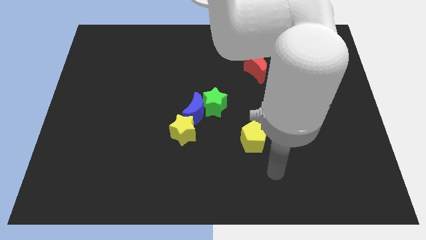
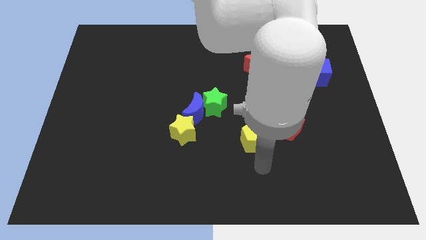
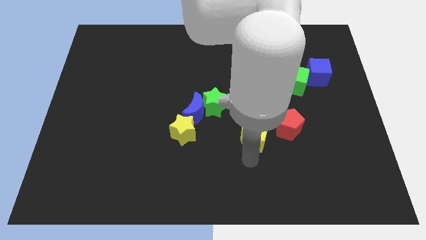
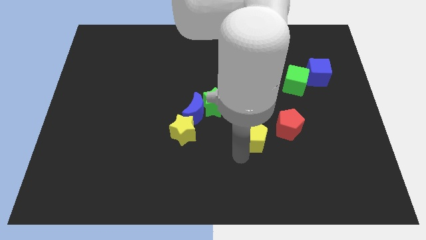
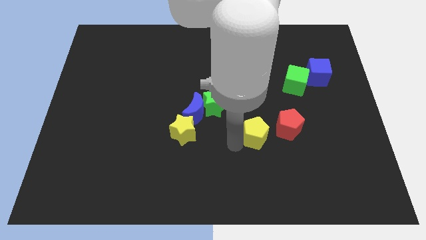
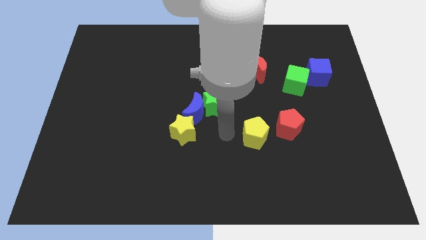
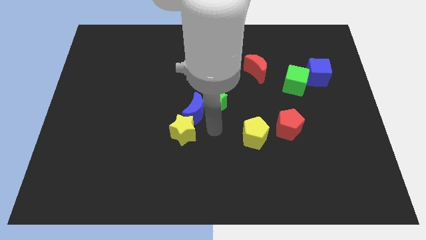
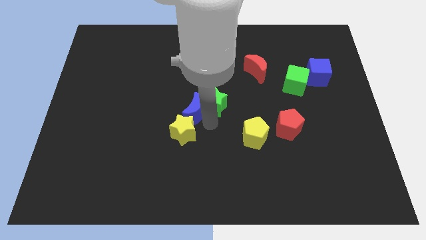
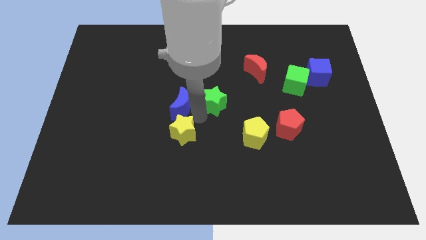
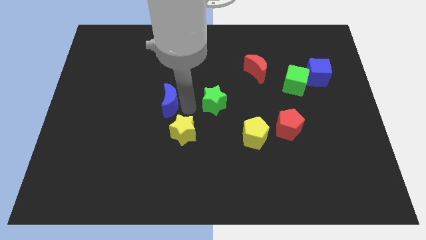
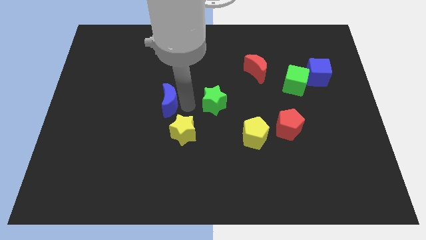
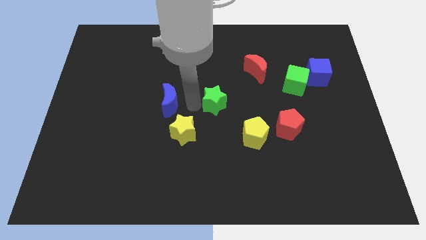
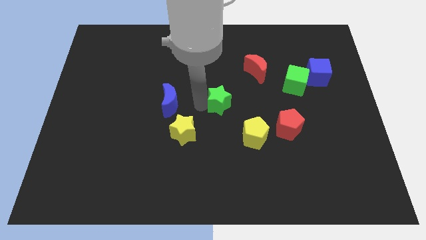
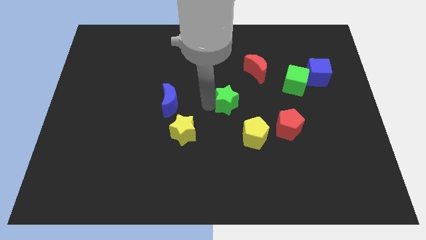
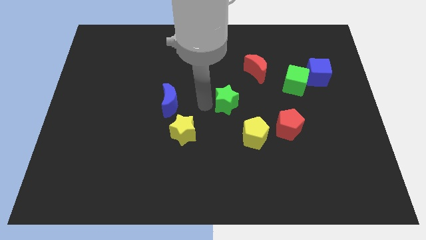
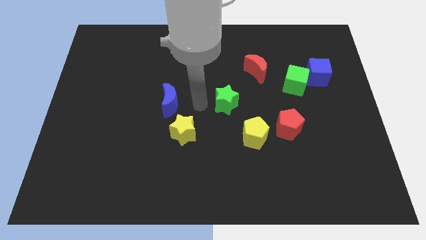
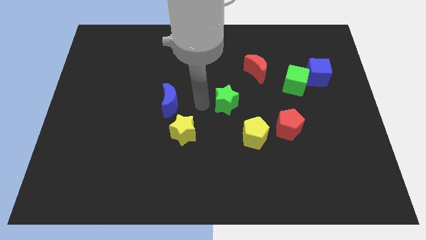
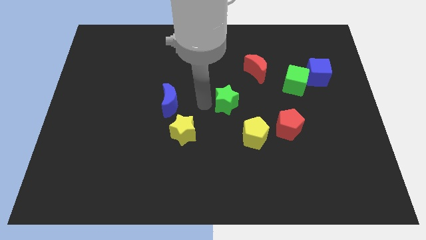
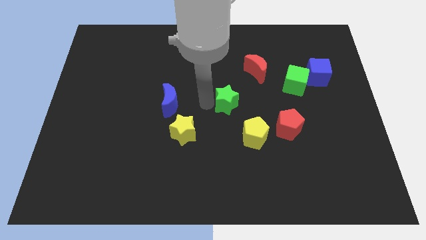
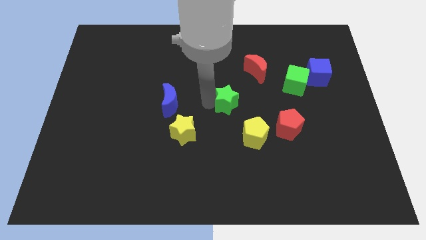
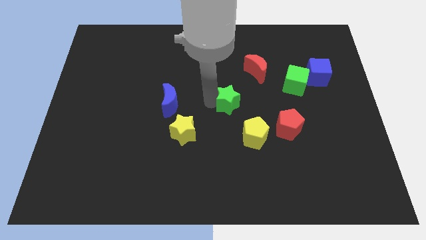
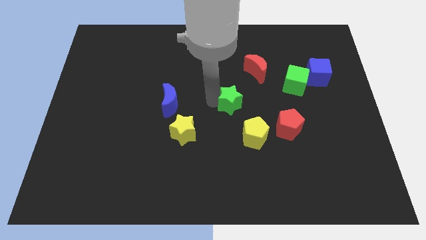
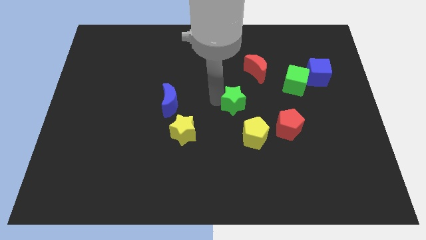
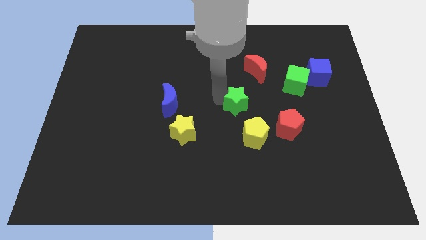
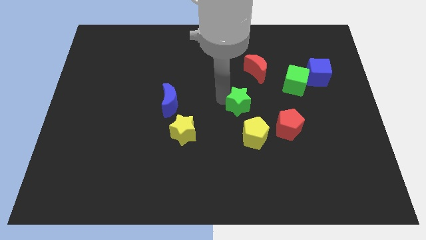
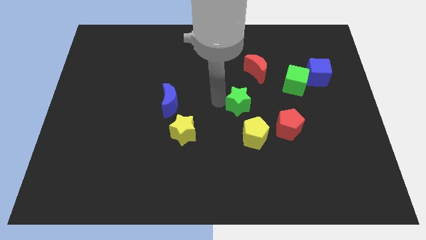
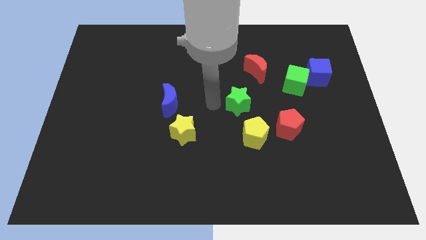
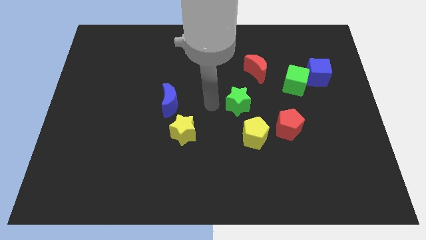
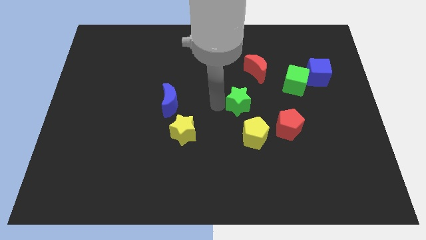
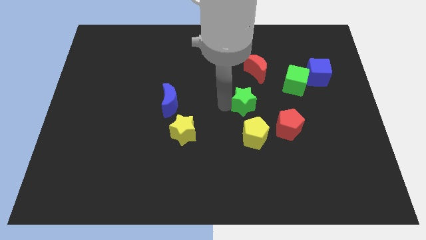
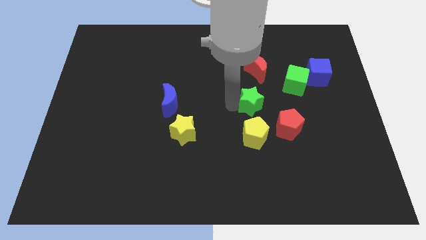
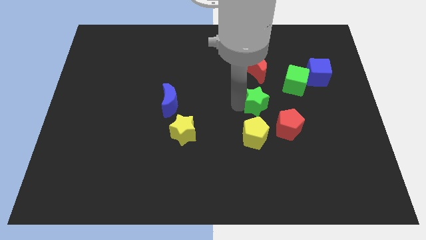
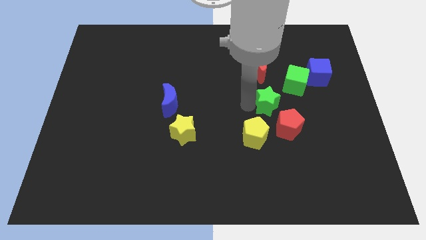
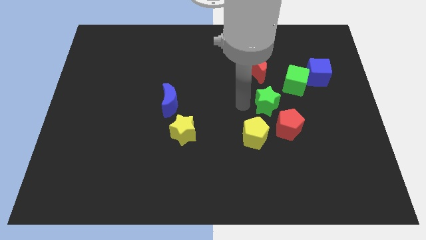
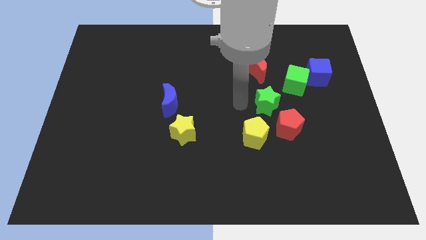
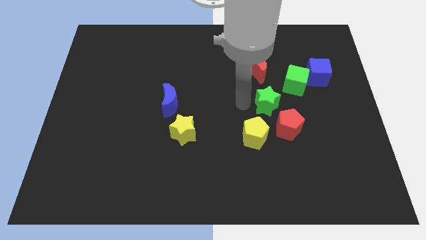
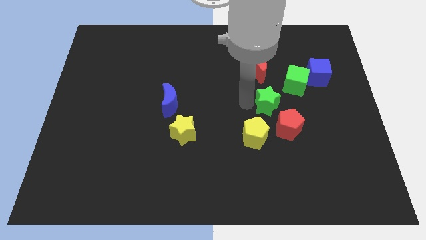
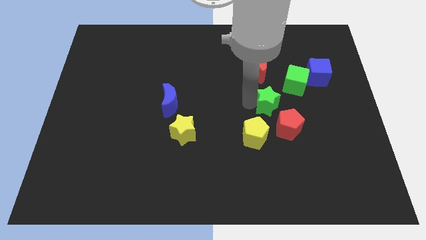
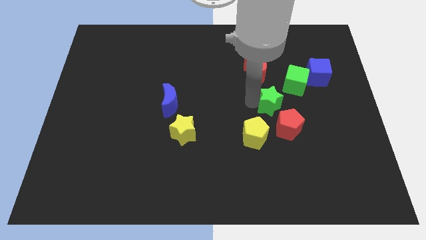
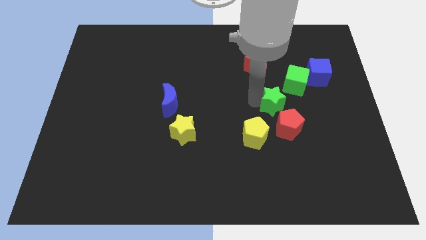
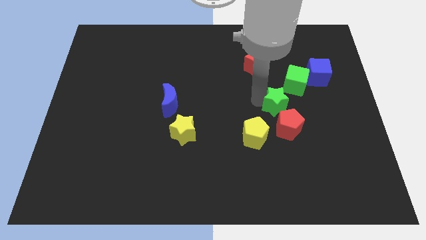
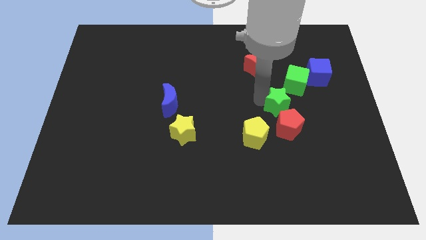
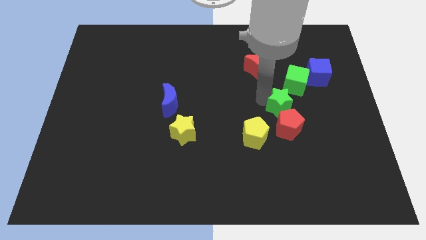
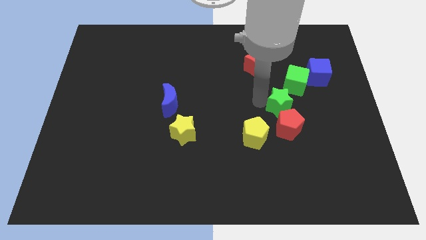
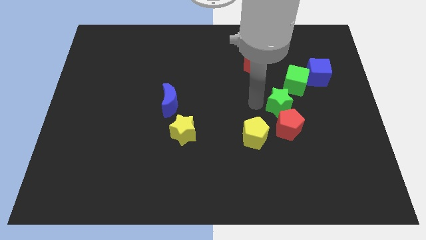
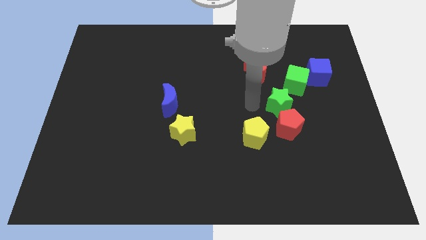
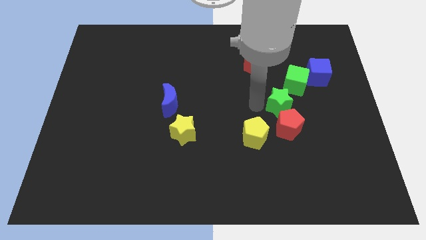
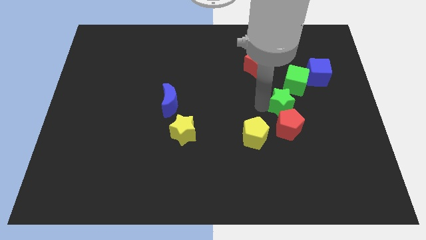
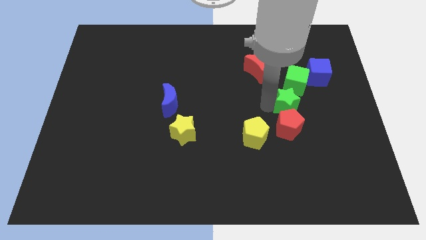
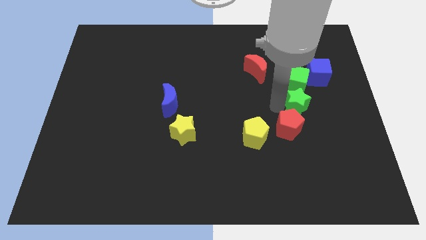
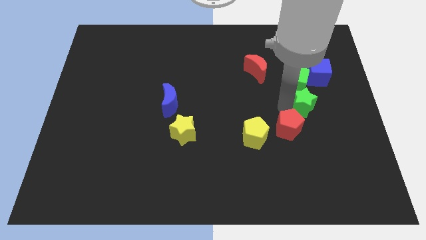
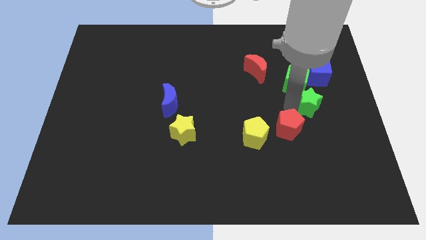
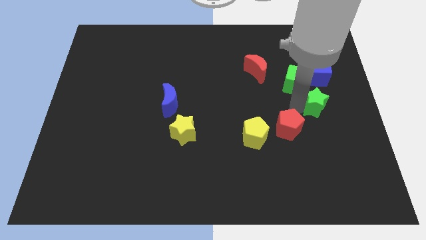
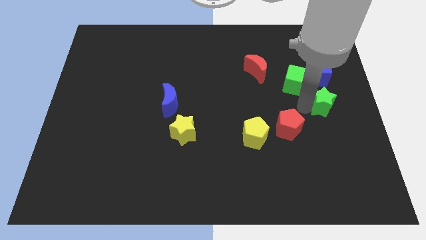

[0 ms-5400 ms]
put the green star to the right side of the board

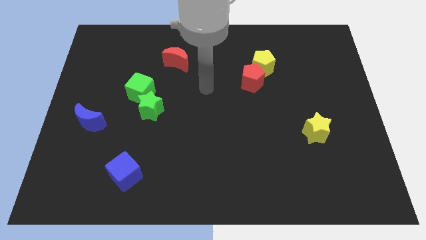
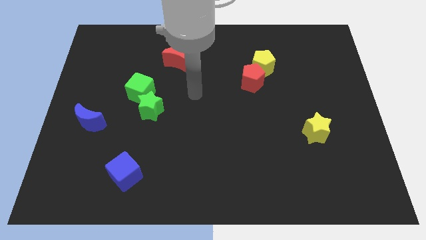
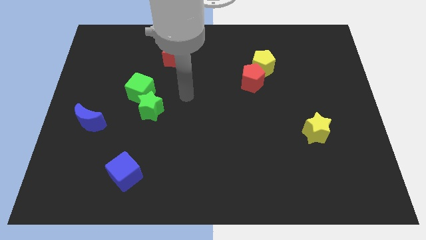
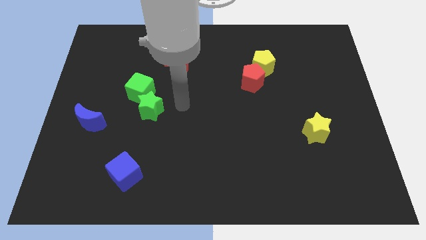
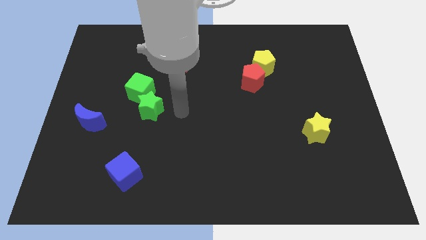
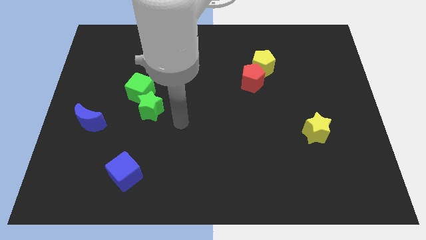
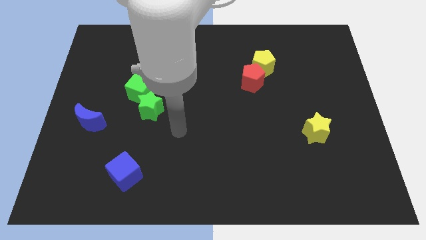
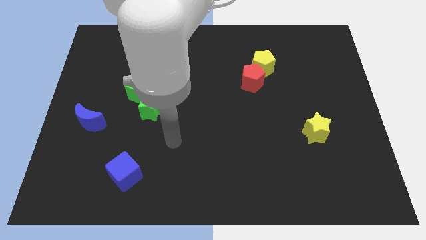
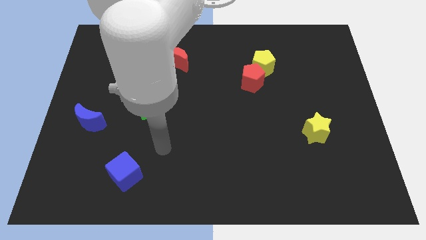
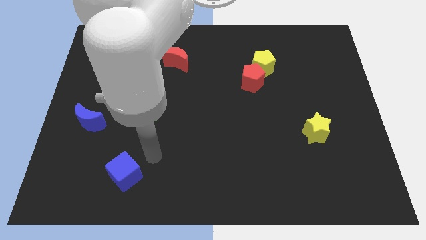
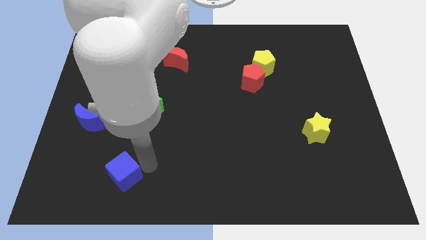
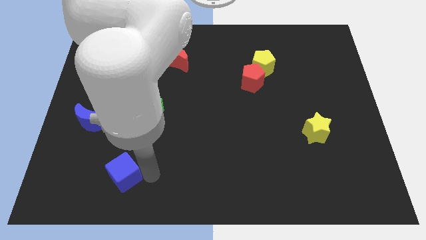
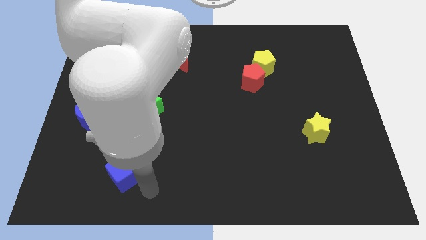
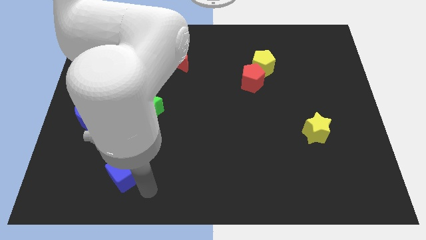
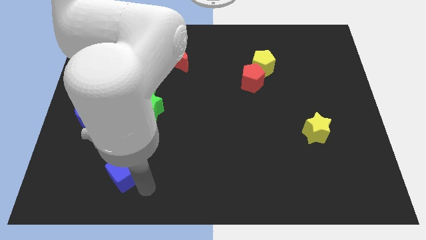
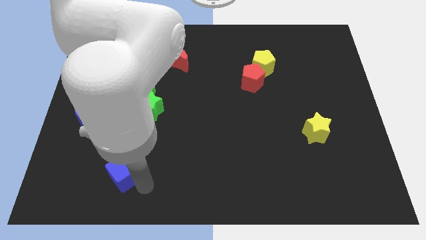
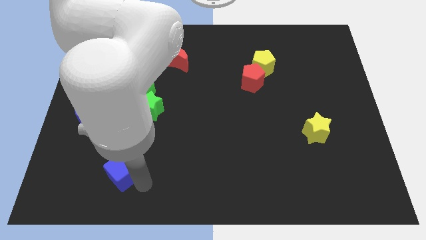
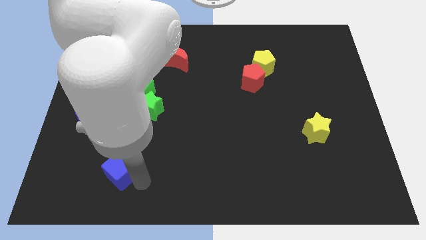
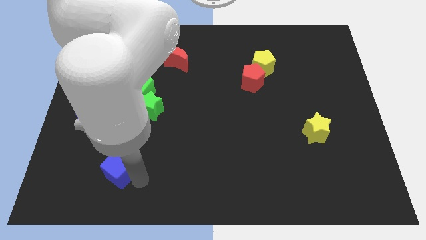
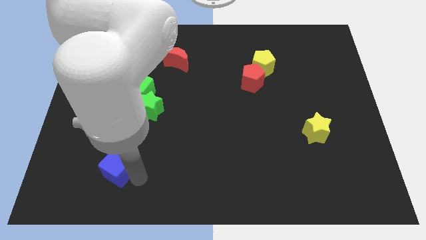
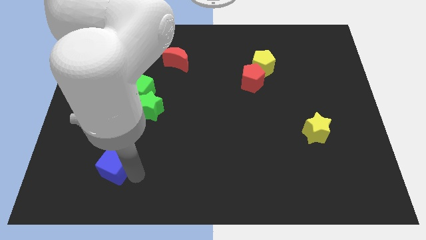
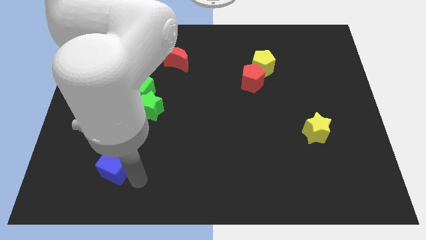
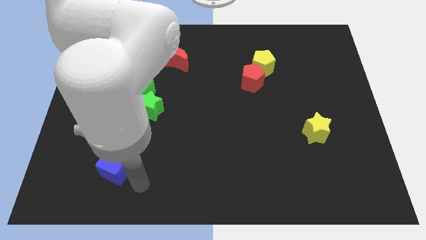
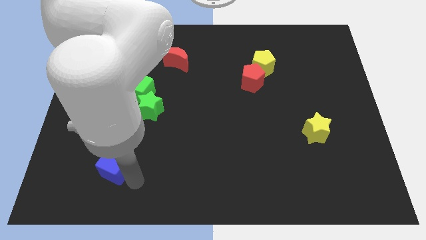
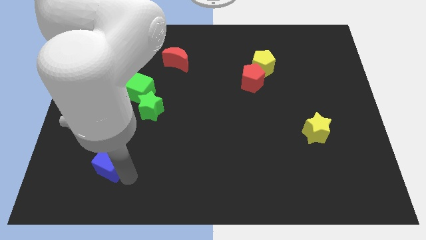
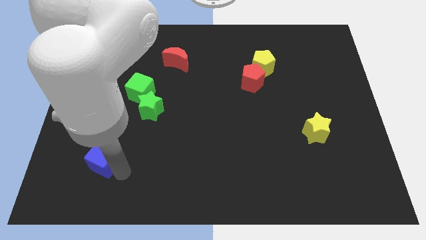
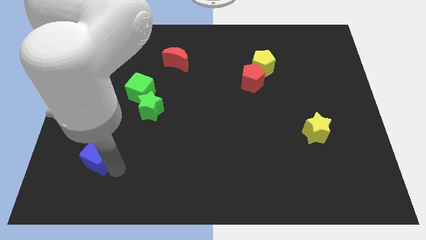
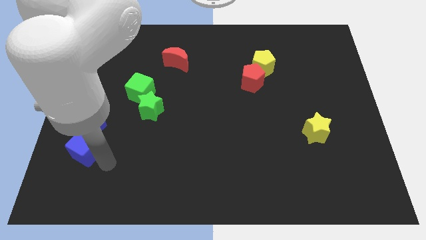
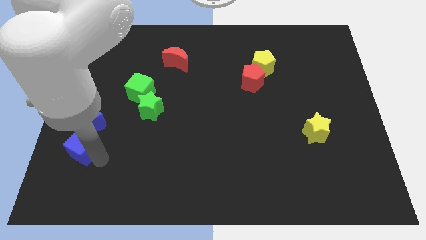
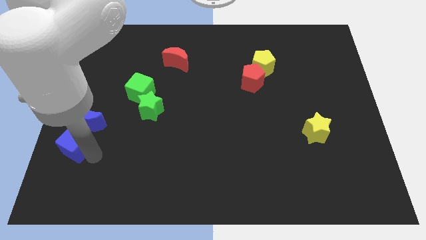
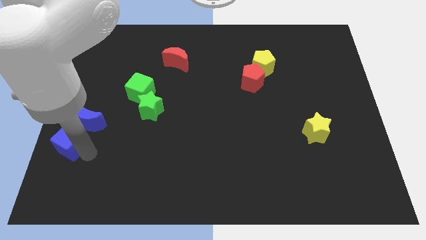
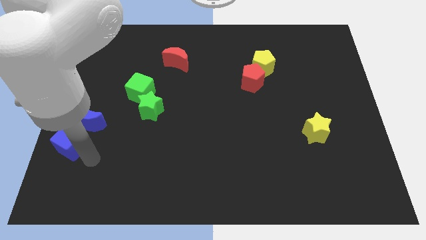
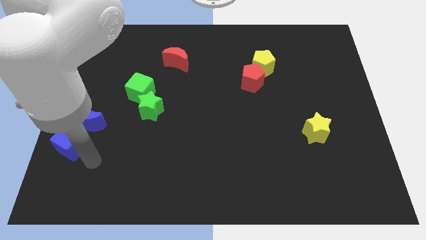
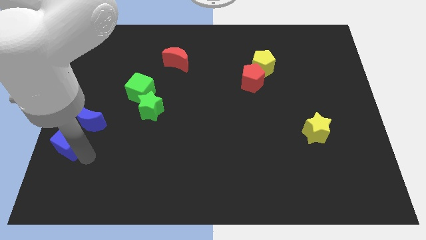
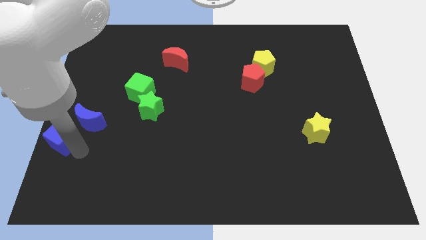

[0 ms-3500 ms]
push the blue cube to the center left
